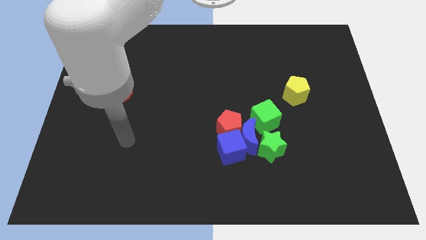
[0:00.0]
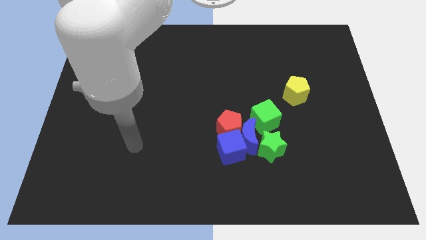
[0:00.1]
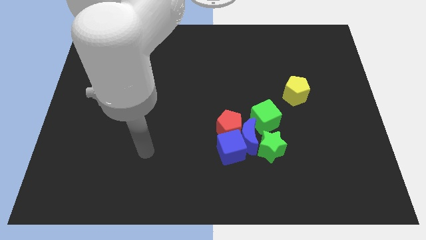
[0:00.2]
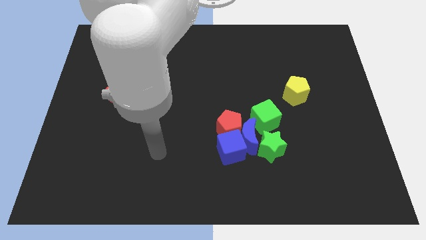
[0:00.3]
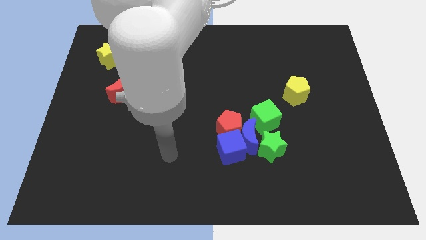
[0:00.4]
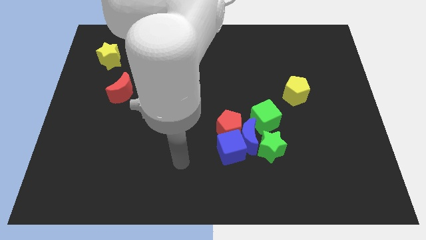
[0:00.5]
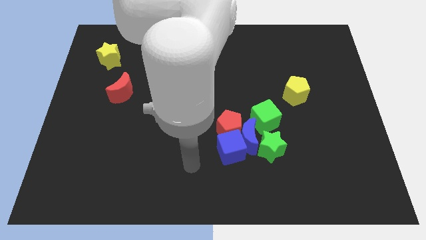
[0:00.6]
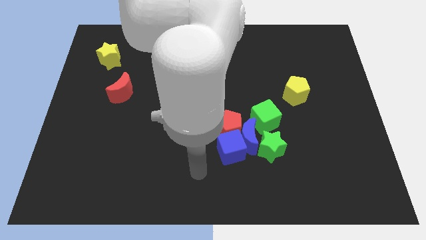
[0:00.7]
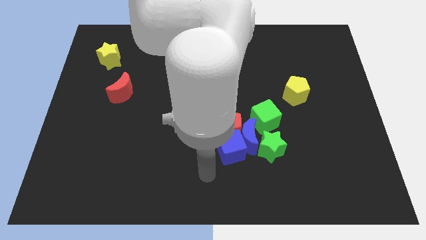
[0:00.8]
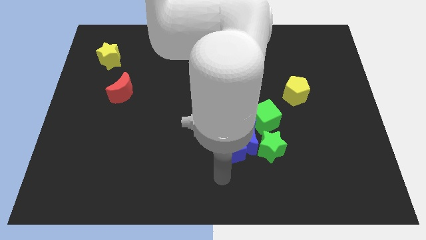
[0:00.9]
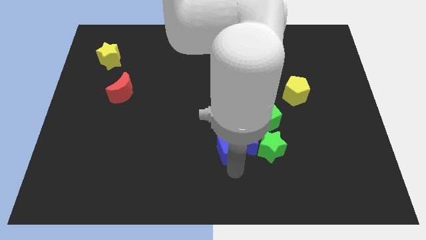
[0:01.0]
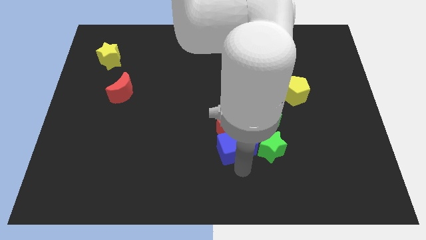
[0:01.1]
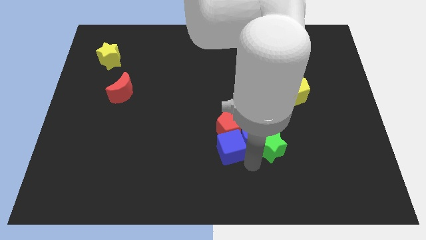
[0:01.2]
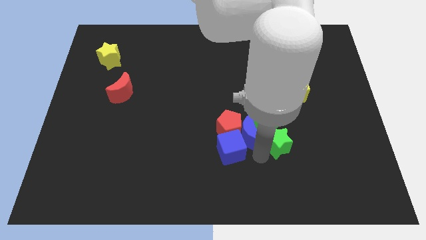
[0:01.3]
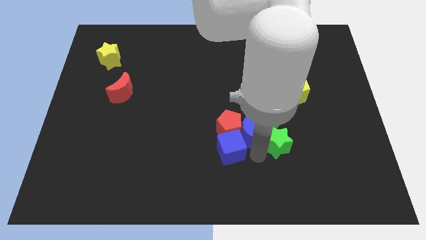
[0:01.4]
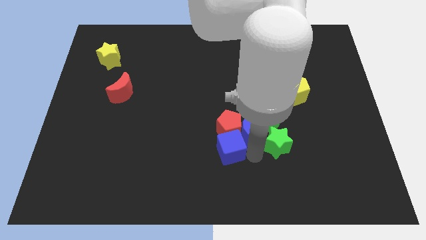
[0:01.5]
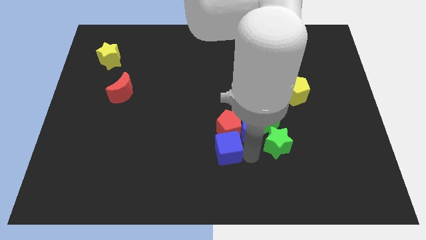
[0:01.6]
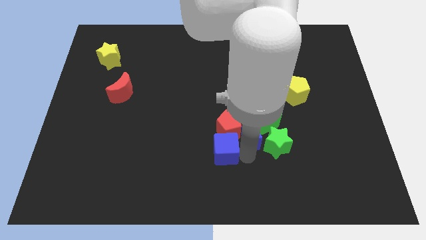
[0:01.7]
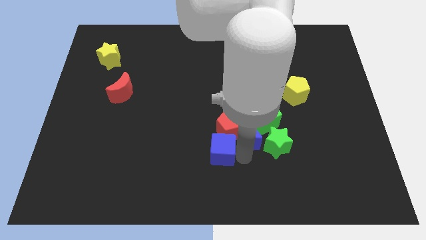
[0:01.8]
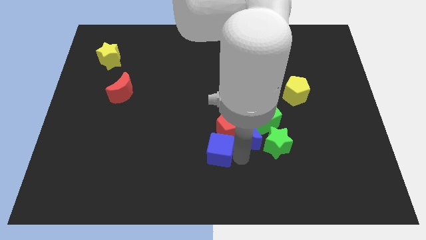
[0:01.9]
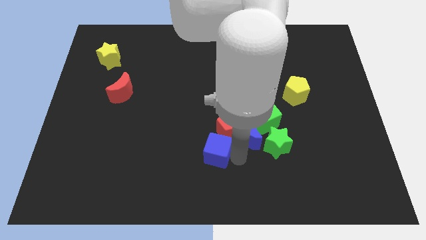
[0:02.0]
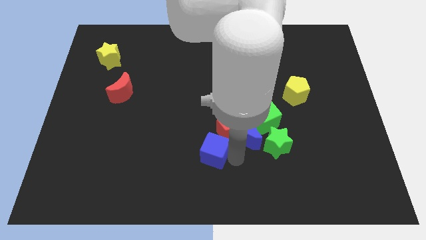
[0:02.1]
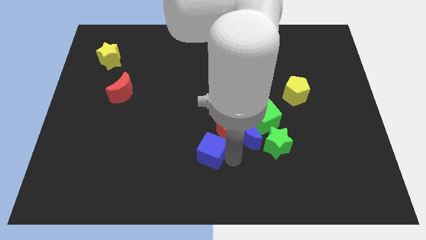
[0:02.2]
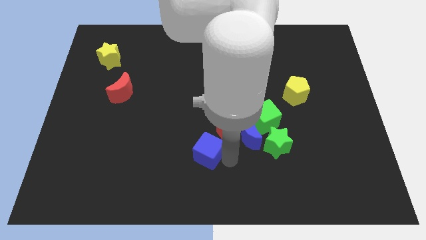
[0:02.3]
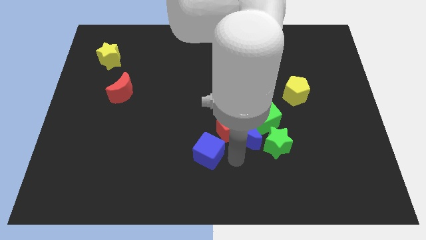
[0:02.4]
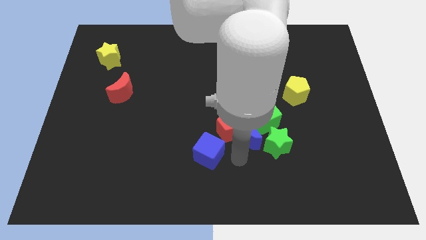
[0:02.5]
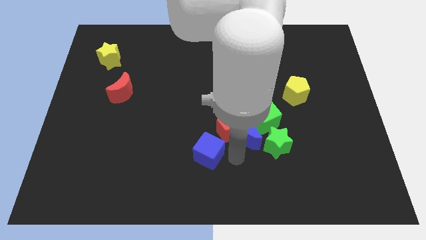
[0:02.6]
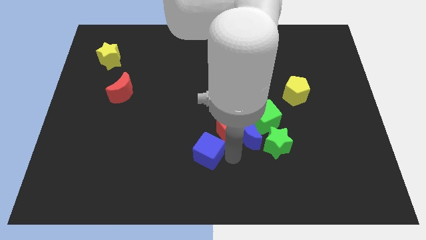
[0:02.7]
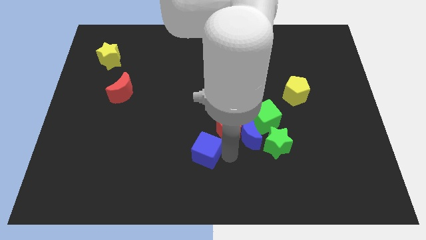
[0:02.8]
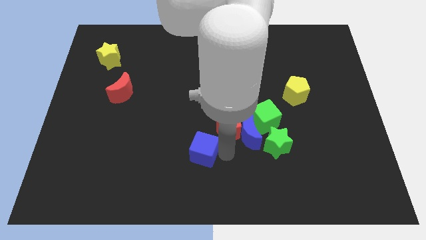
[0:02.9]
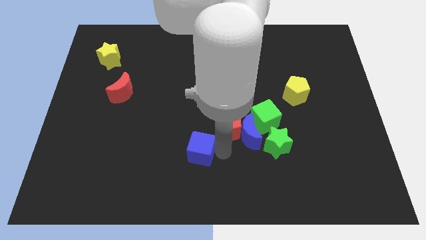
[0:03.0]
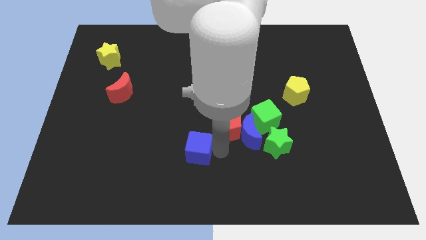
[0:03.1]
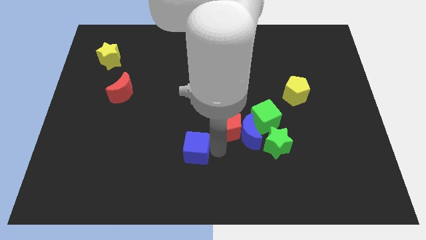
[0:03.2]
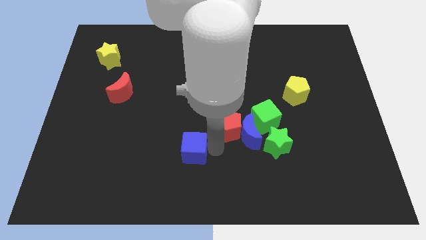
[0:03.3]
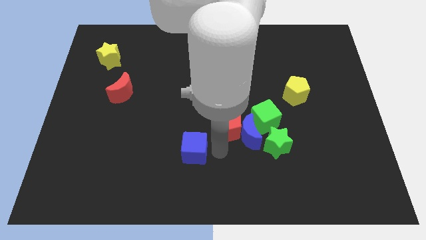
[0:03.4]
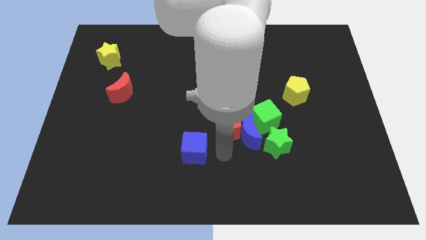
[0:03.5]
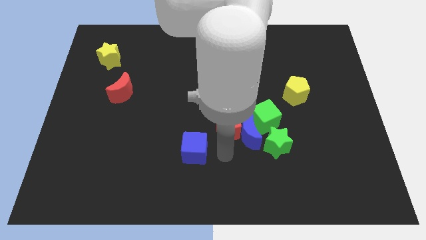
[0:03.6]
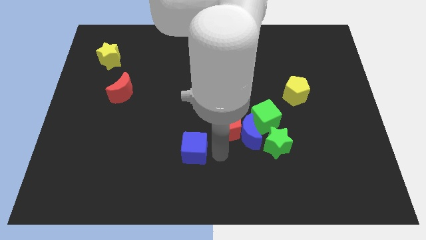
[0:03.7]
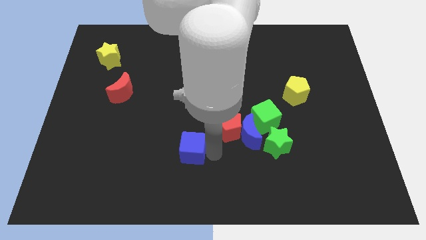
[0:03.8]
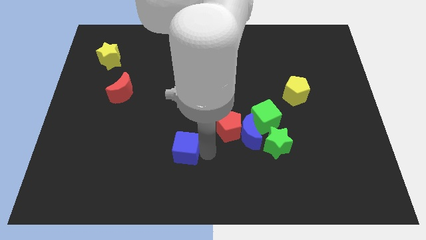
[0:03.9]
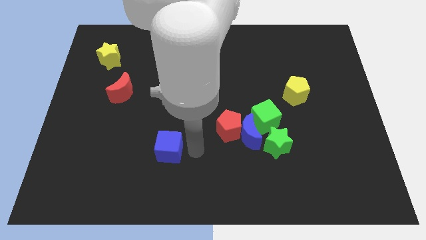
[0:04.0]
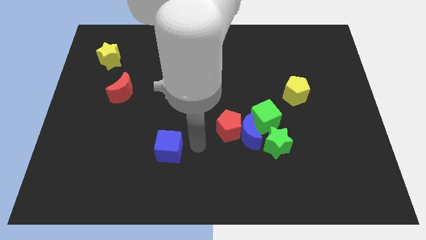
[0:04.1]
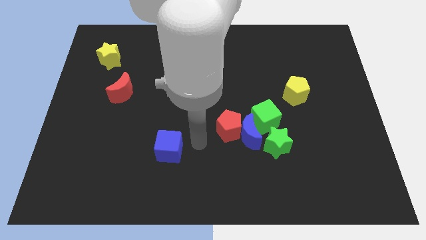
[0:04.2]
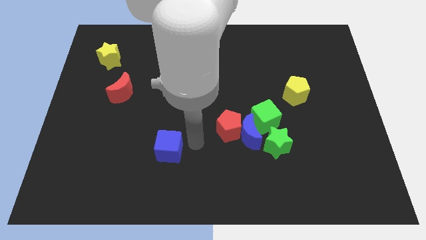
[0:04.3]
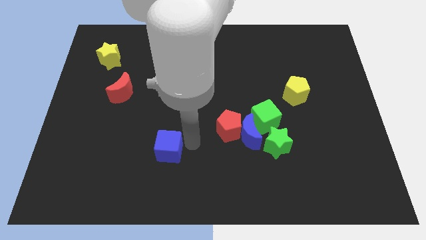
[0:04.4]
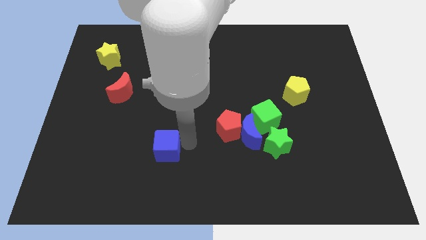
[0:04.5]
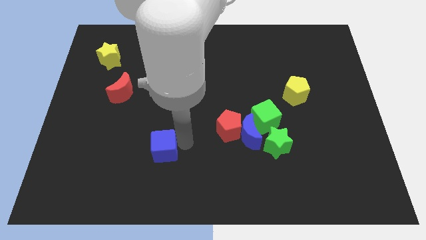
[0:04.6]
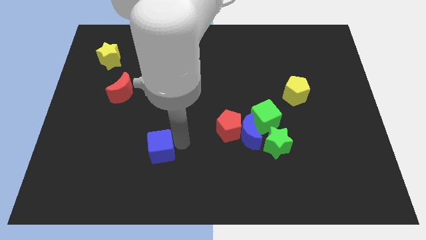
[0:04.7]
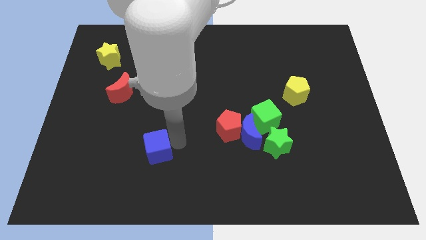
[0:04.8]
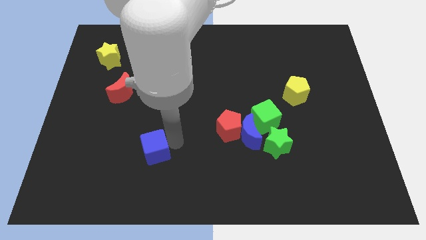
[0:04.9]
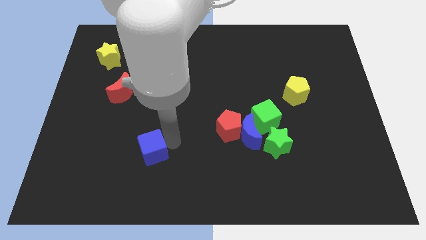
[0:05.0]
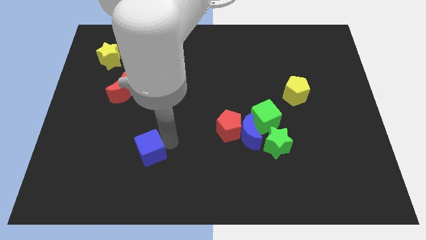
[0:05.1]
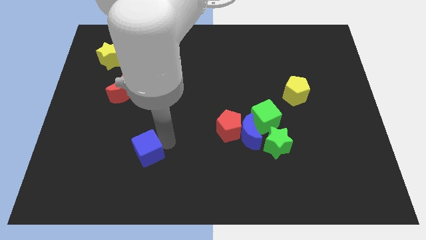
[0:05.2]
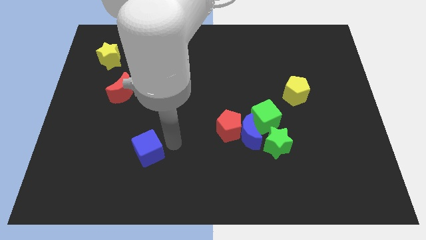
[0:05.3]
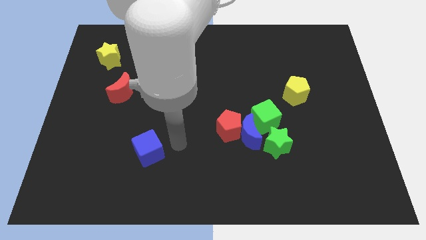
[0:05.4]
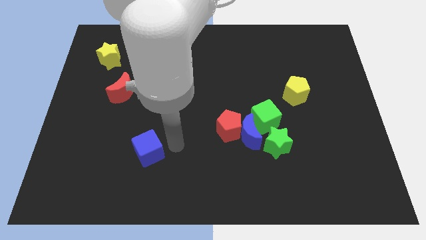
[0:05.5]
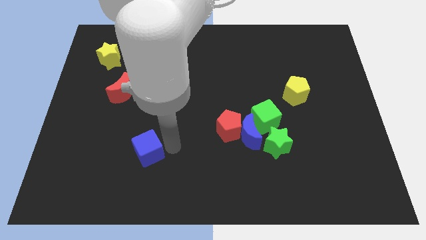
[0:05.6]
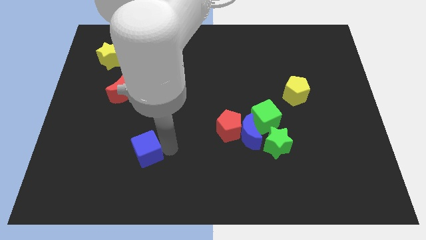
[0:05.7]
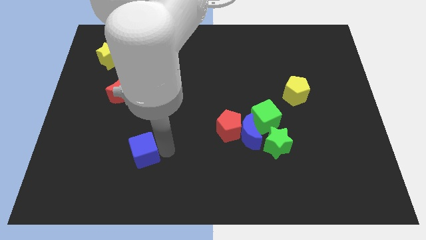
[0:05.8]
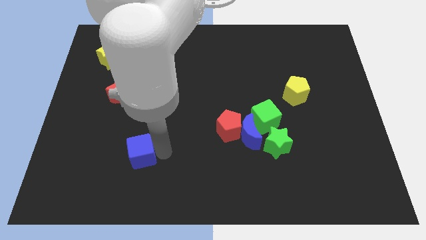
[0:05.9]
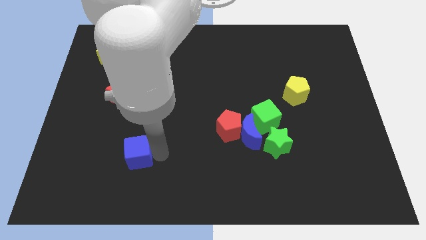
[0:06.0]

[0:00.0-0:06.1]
slide the blue cube left

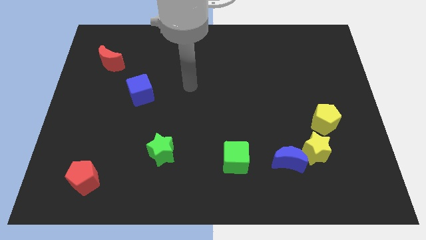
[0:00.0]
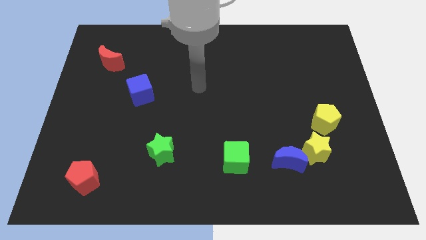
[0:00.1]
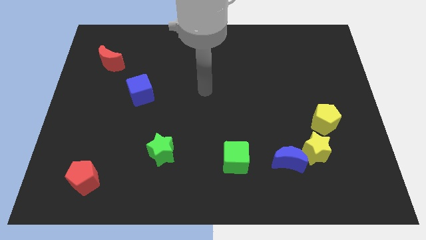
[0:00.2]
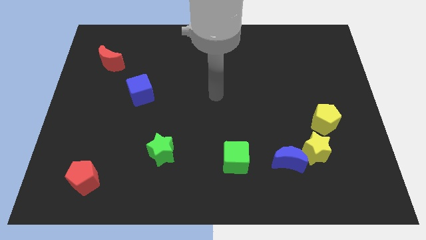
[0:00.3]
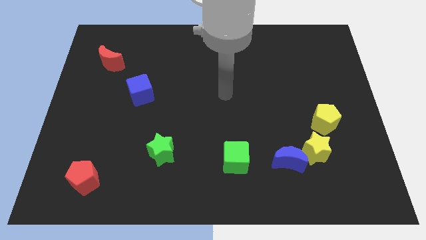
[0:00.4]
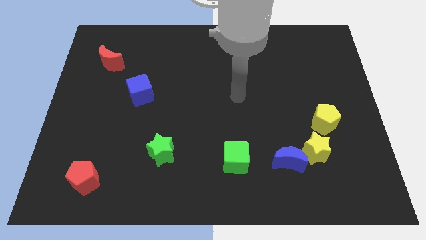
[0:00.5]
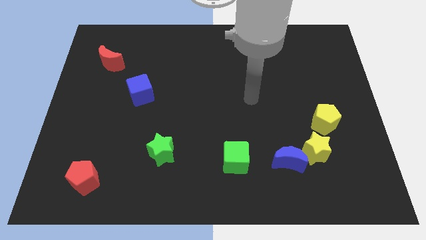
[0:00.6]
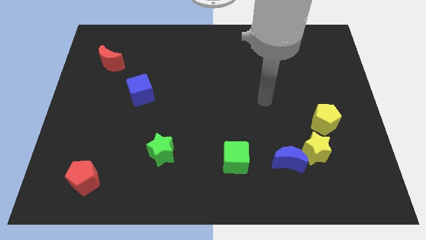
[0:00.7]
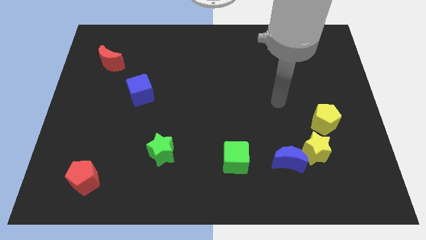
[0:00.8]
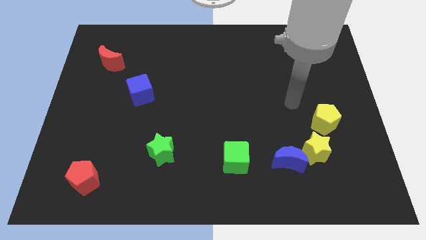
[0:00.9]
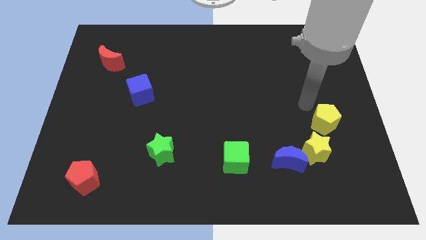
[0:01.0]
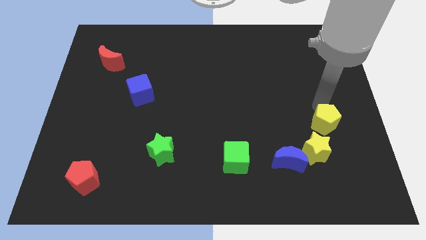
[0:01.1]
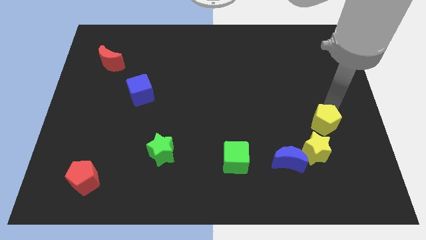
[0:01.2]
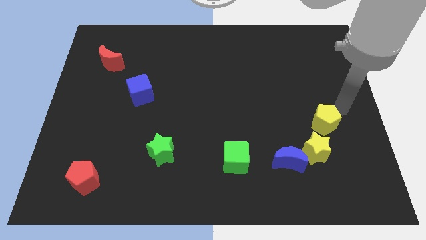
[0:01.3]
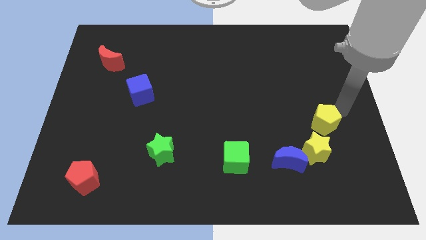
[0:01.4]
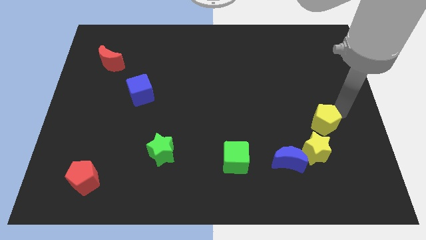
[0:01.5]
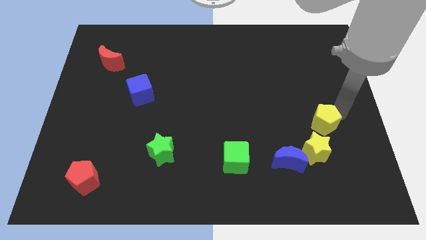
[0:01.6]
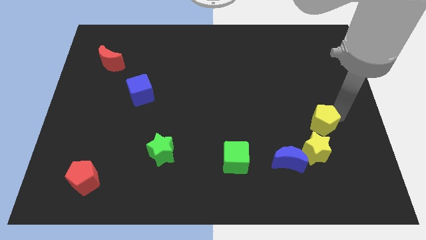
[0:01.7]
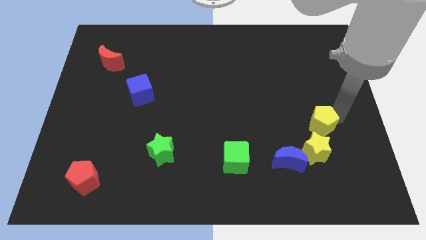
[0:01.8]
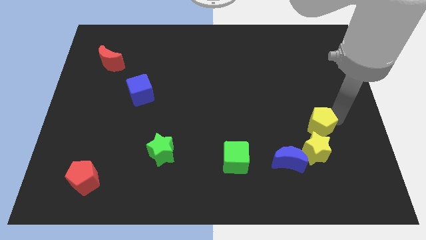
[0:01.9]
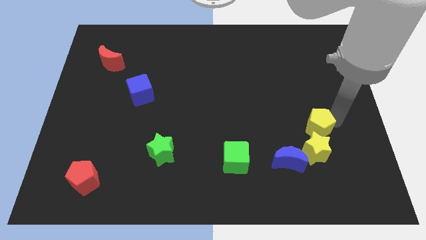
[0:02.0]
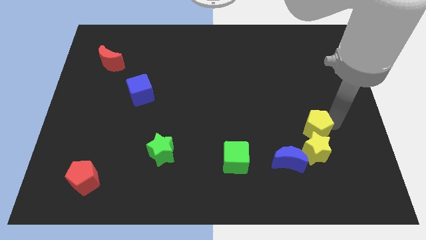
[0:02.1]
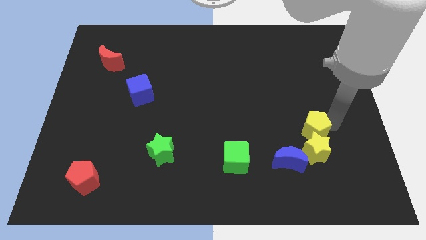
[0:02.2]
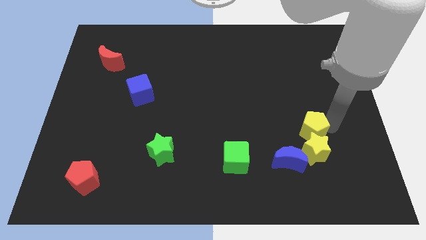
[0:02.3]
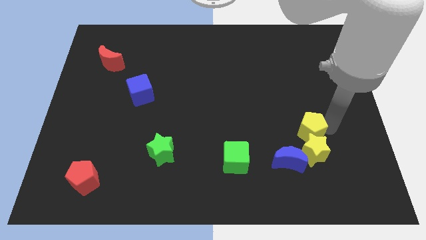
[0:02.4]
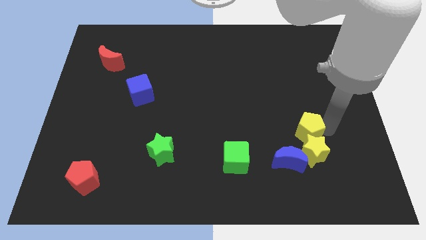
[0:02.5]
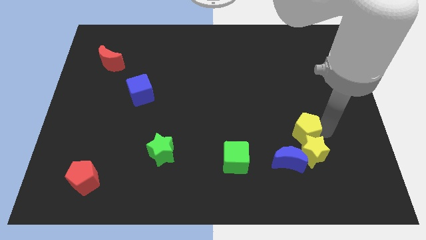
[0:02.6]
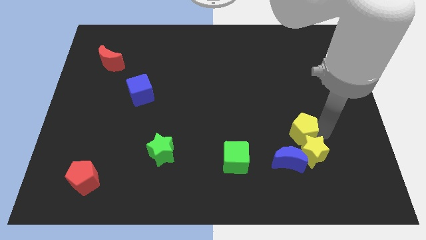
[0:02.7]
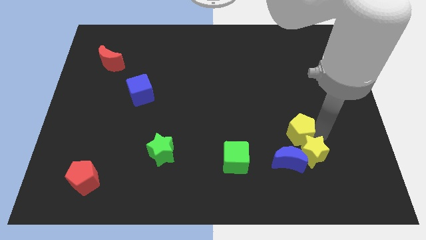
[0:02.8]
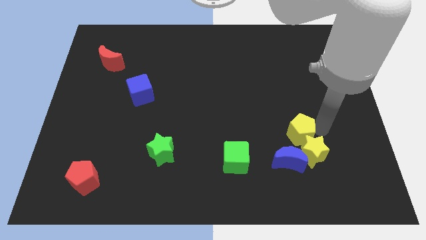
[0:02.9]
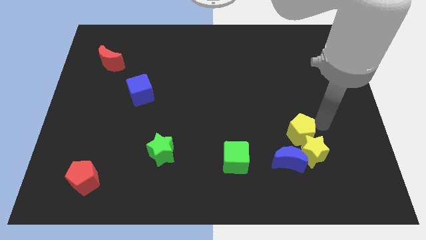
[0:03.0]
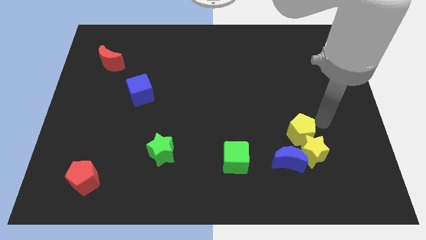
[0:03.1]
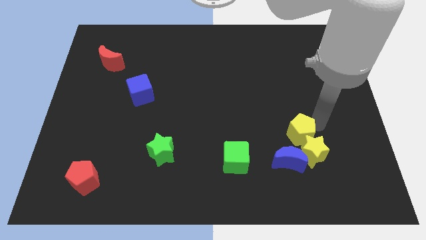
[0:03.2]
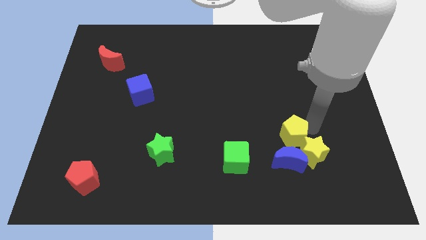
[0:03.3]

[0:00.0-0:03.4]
push the yellow pentagon diagonally down and to the left a little bit
